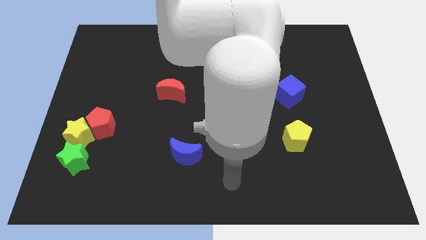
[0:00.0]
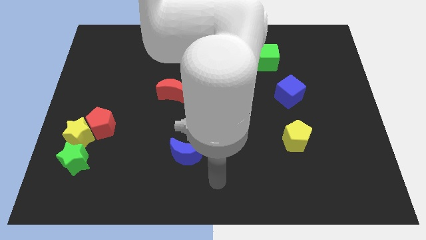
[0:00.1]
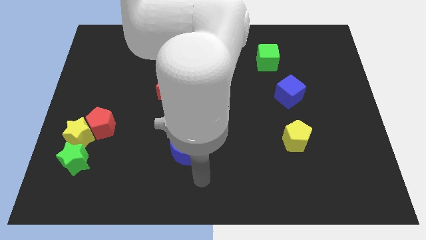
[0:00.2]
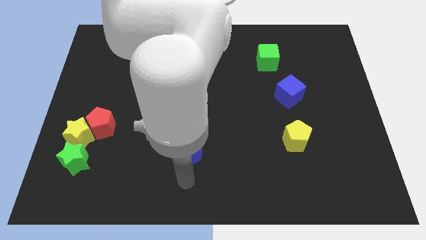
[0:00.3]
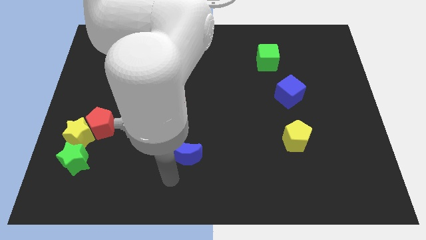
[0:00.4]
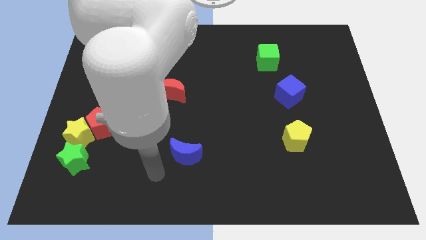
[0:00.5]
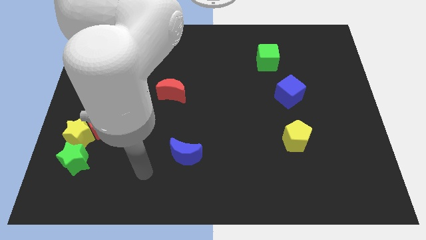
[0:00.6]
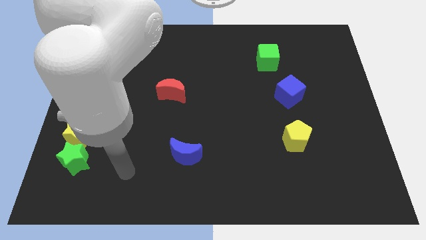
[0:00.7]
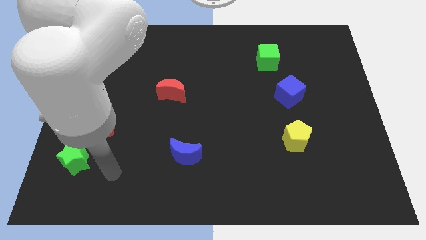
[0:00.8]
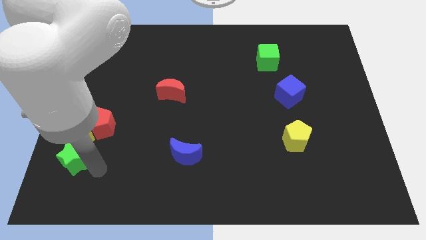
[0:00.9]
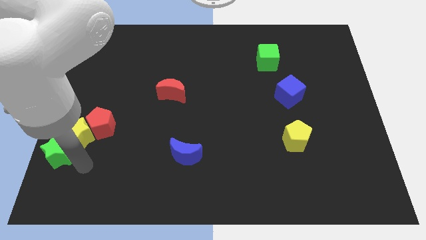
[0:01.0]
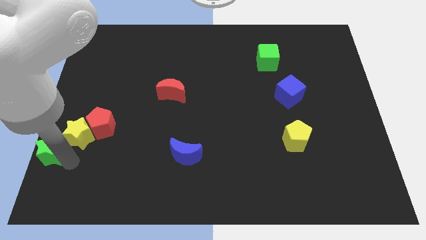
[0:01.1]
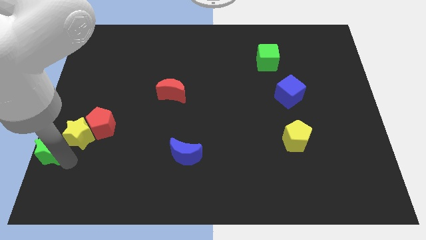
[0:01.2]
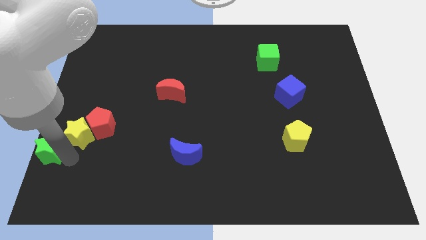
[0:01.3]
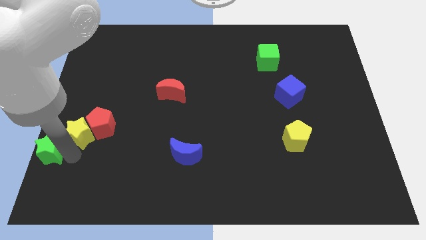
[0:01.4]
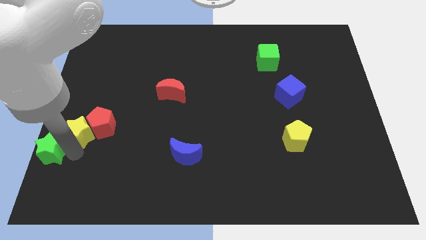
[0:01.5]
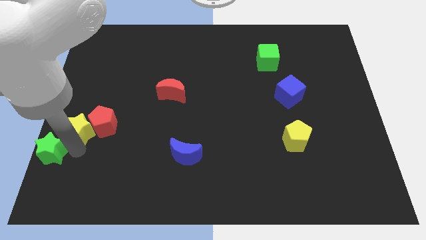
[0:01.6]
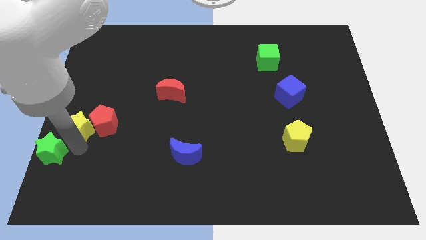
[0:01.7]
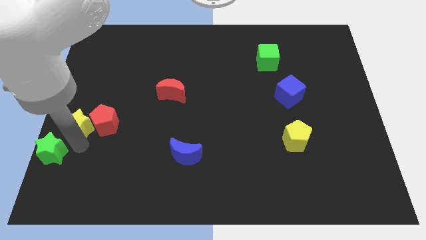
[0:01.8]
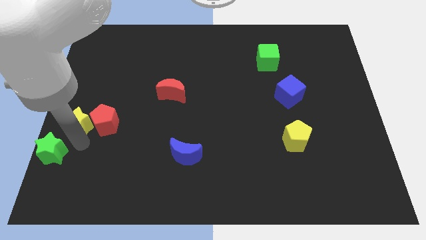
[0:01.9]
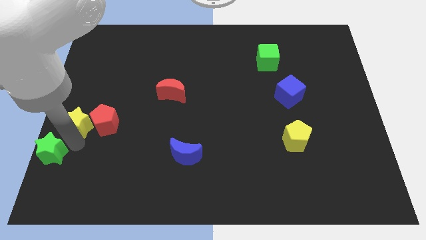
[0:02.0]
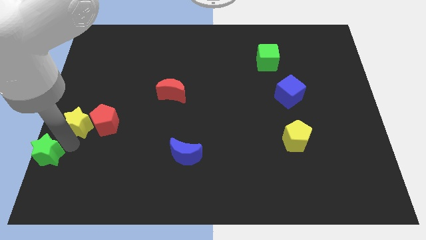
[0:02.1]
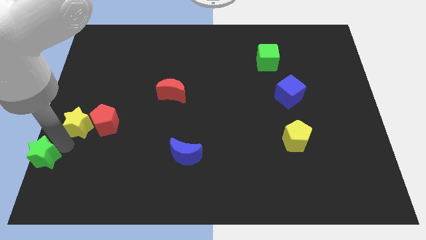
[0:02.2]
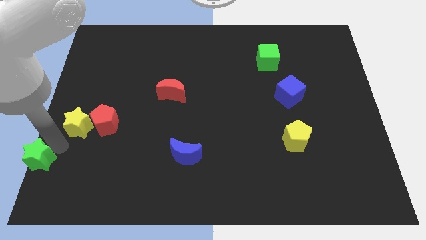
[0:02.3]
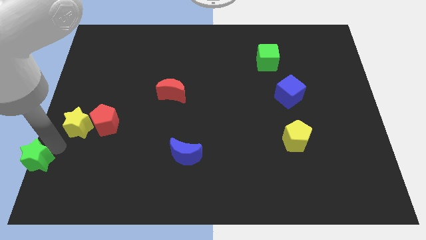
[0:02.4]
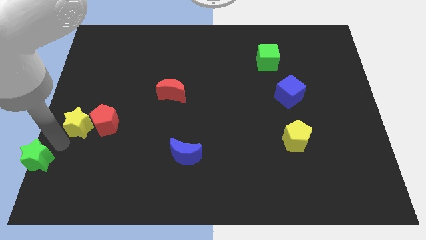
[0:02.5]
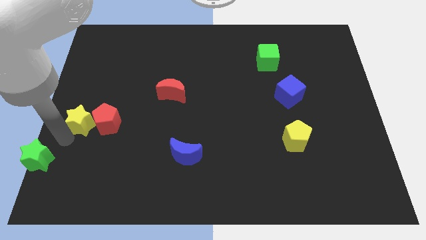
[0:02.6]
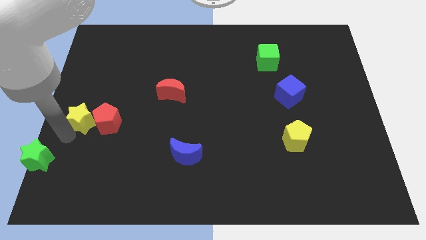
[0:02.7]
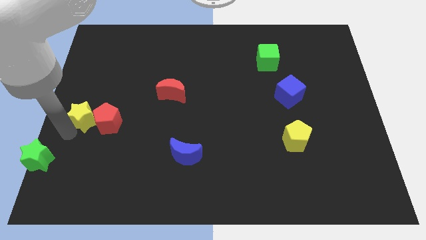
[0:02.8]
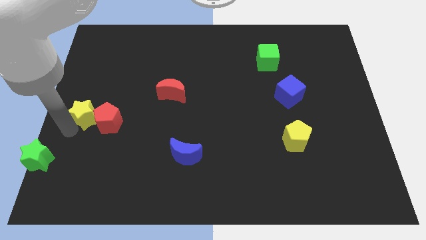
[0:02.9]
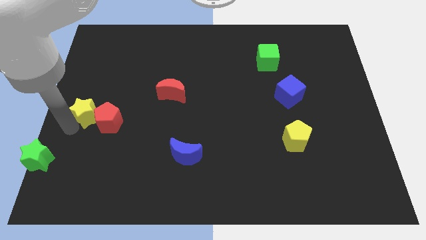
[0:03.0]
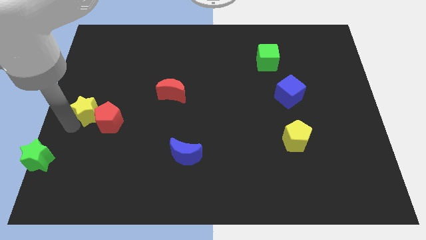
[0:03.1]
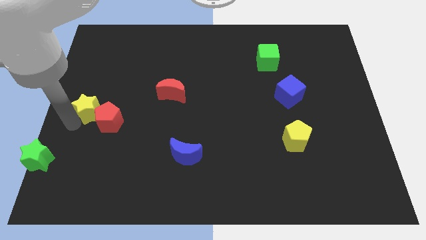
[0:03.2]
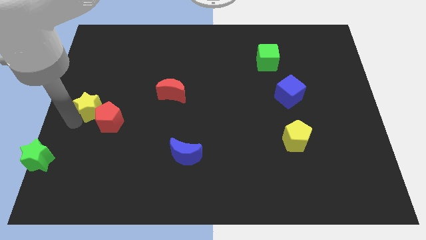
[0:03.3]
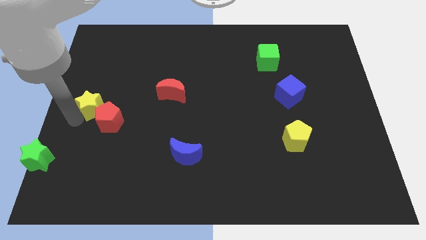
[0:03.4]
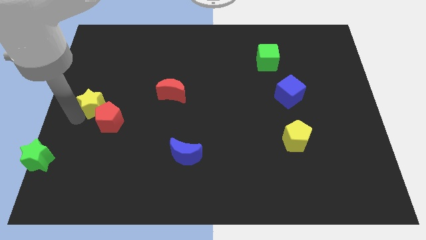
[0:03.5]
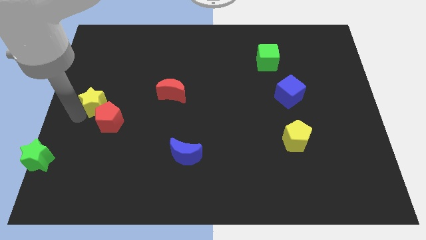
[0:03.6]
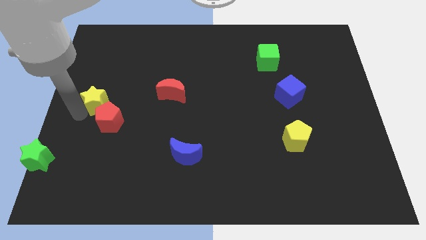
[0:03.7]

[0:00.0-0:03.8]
slightly move the yellow star diagonally upwards and to the right

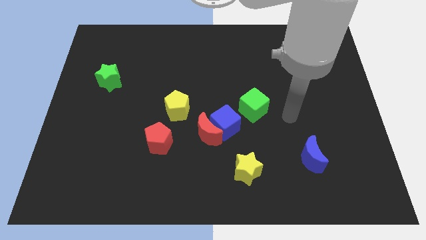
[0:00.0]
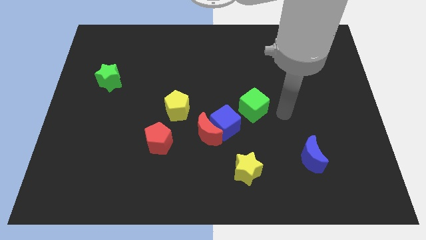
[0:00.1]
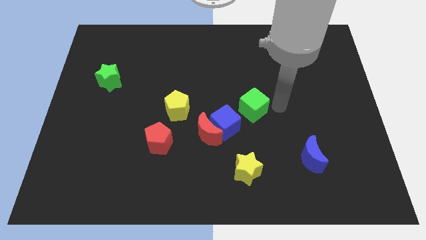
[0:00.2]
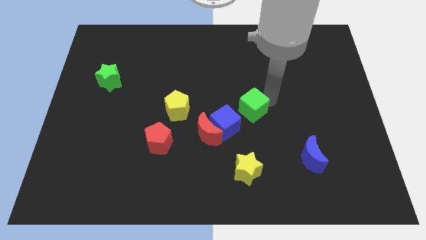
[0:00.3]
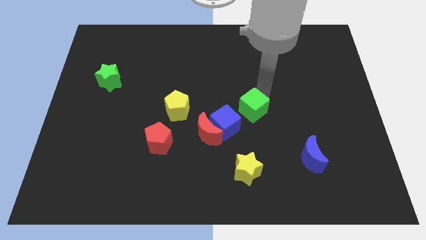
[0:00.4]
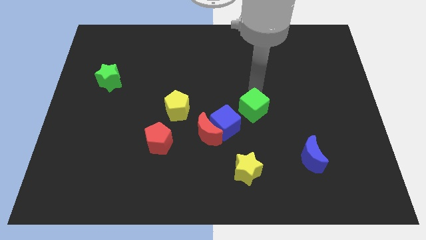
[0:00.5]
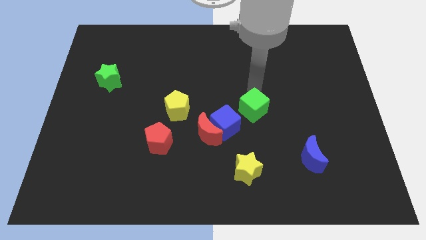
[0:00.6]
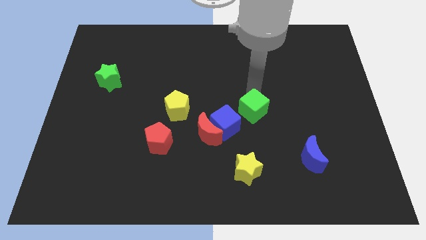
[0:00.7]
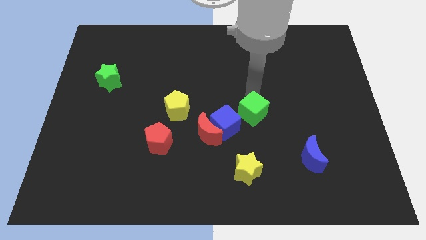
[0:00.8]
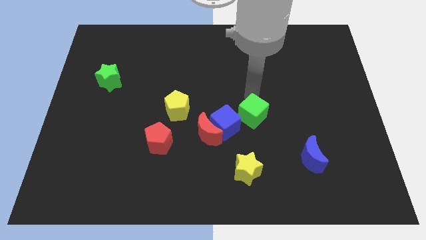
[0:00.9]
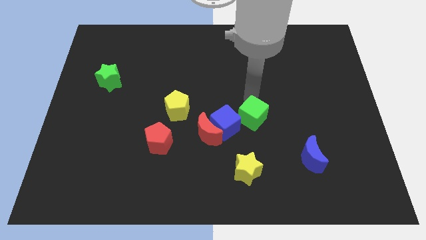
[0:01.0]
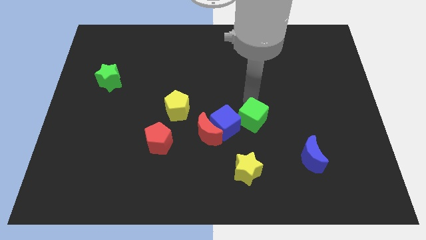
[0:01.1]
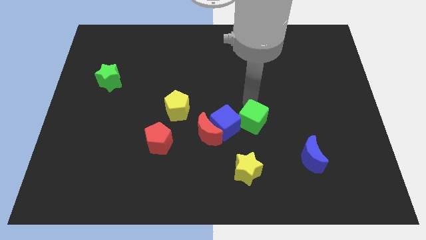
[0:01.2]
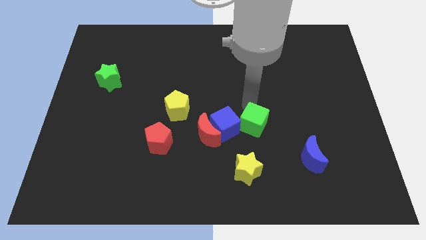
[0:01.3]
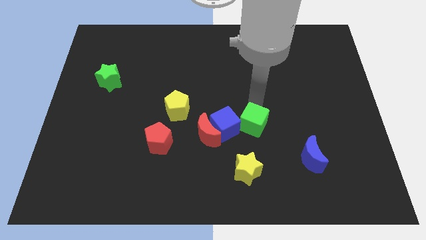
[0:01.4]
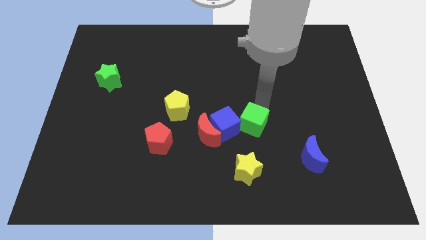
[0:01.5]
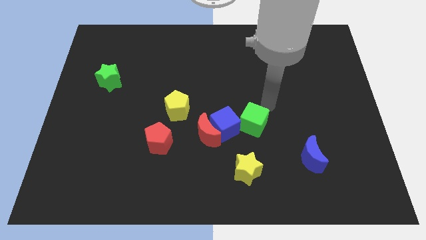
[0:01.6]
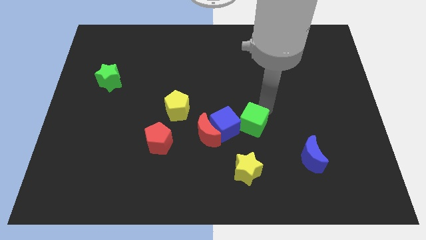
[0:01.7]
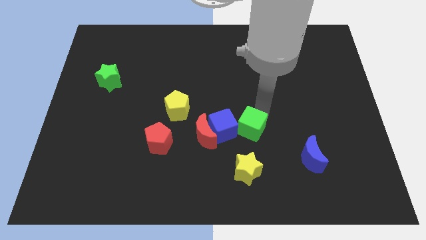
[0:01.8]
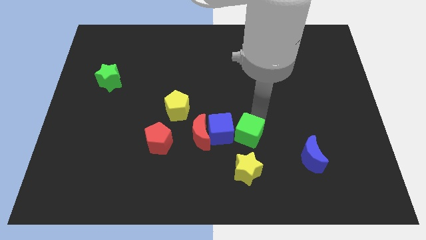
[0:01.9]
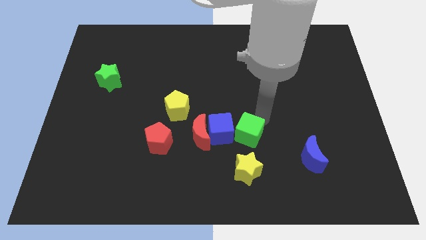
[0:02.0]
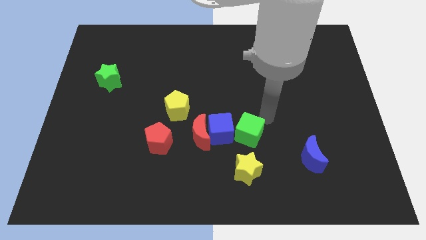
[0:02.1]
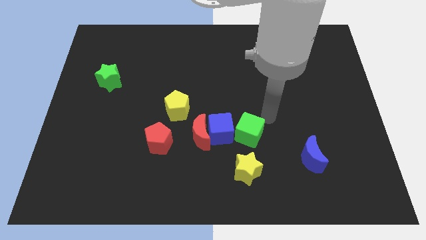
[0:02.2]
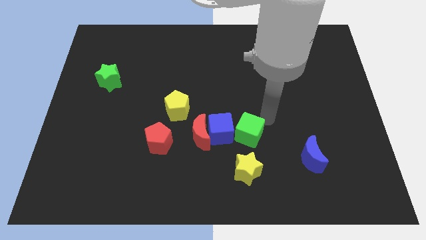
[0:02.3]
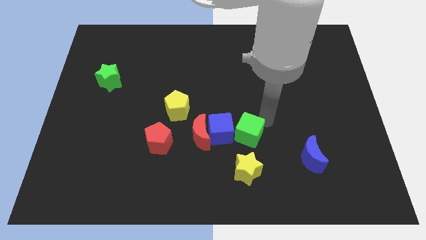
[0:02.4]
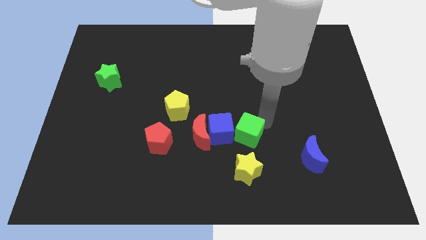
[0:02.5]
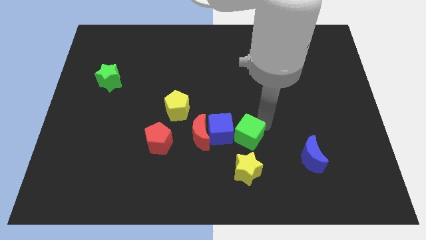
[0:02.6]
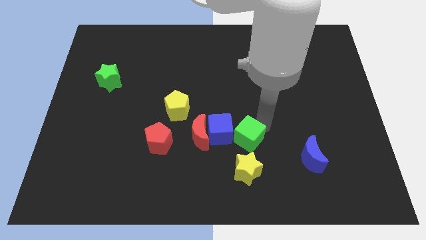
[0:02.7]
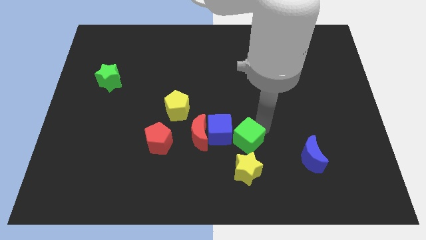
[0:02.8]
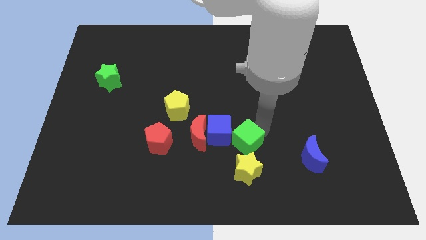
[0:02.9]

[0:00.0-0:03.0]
push the green cube a bit downwards and then left

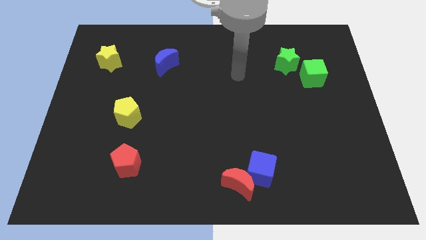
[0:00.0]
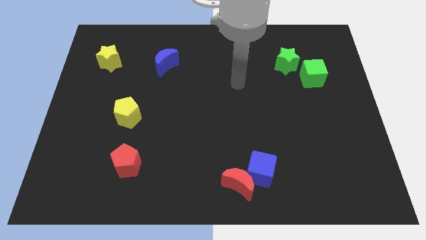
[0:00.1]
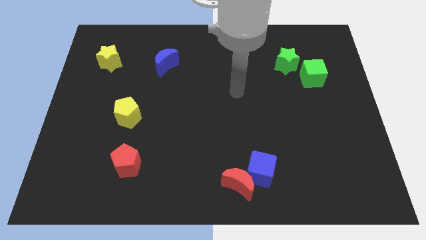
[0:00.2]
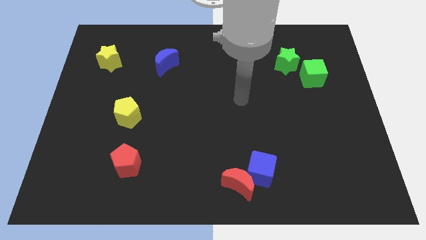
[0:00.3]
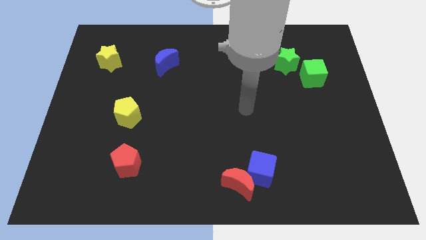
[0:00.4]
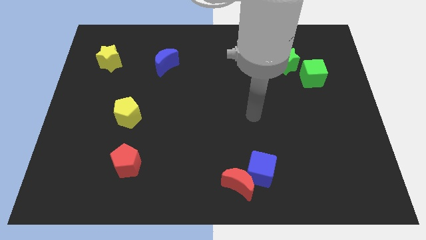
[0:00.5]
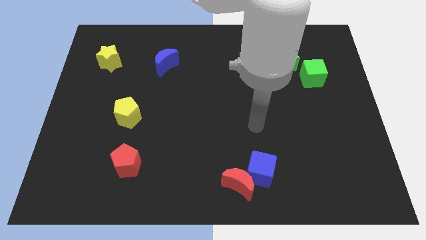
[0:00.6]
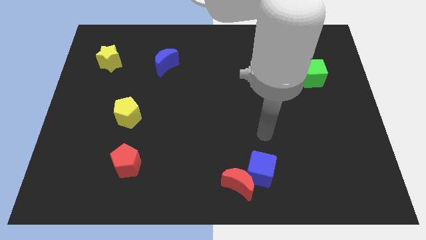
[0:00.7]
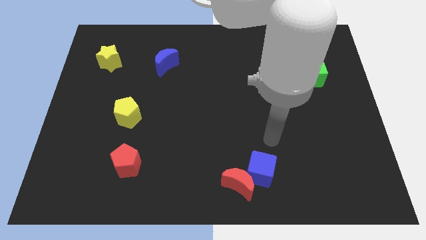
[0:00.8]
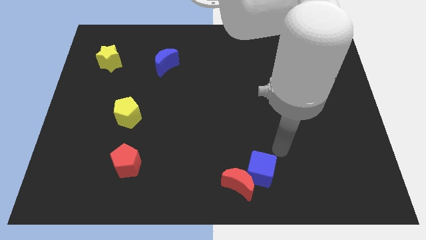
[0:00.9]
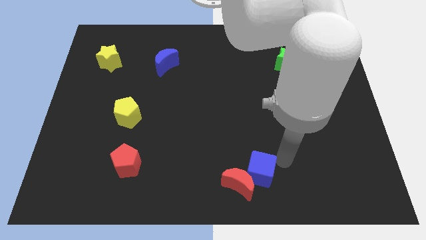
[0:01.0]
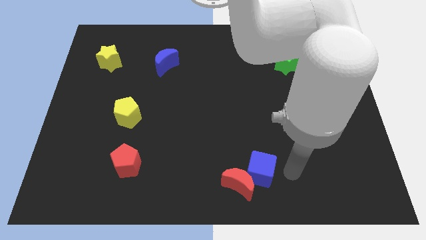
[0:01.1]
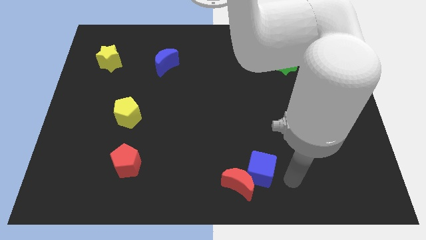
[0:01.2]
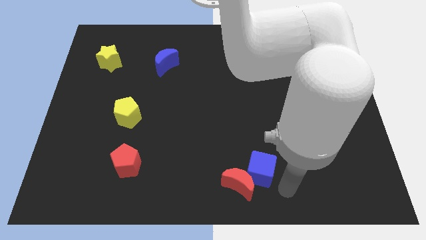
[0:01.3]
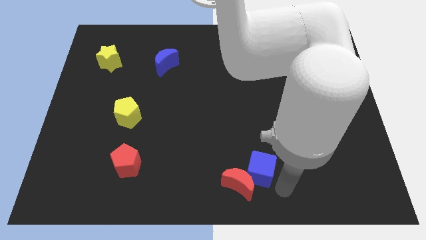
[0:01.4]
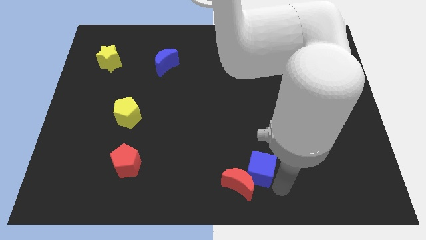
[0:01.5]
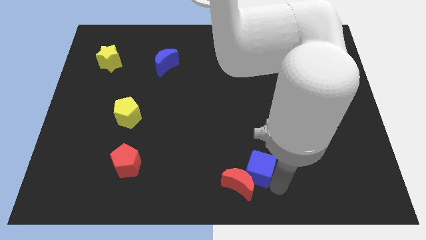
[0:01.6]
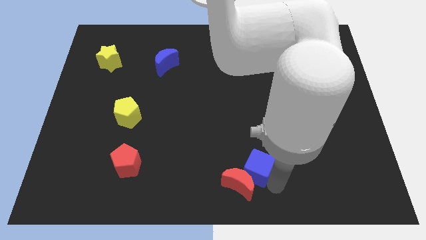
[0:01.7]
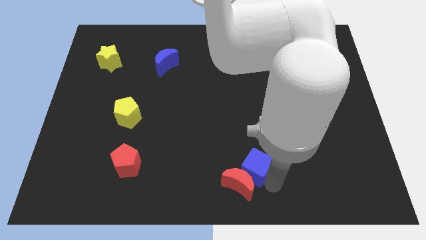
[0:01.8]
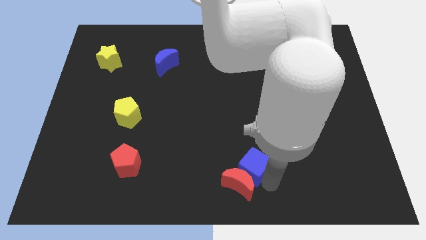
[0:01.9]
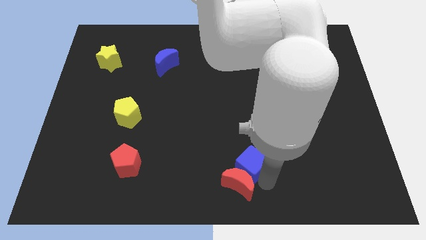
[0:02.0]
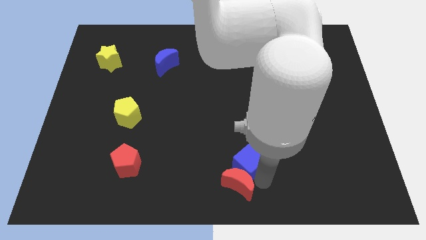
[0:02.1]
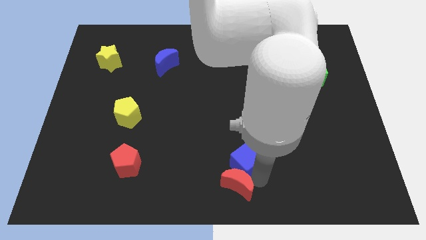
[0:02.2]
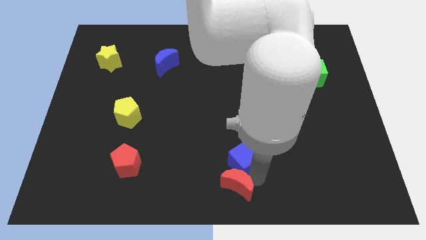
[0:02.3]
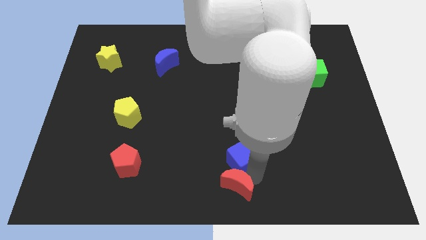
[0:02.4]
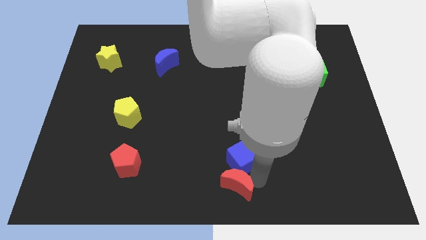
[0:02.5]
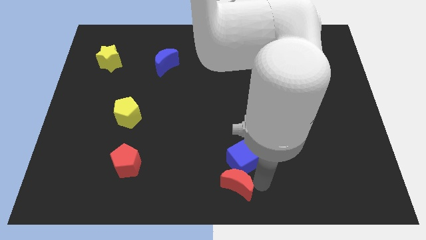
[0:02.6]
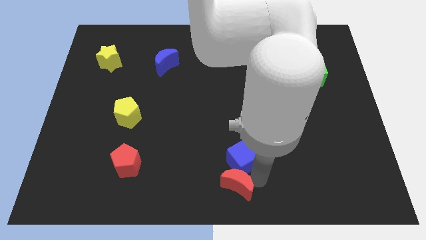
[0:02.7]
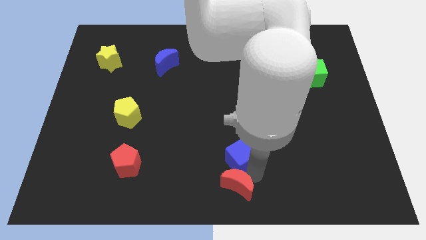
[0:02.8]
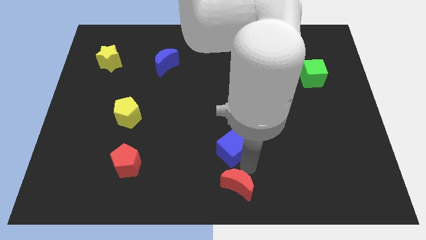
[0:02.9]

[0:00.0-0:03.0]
slide the blue cube somewhat upwards and then to the left
